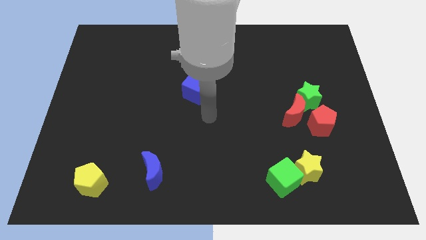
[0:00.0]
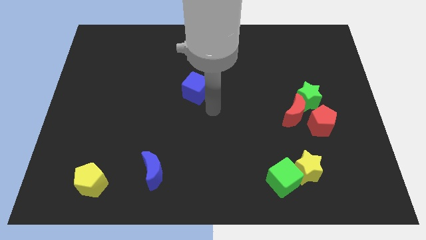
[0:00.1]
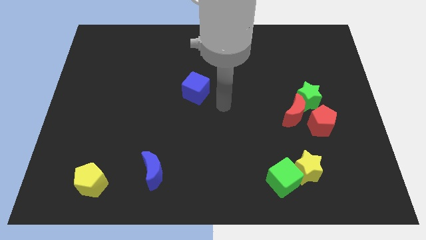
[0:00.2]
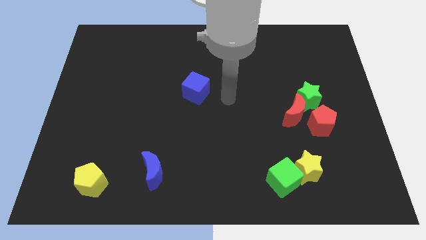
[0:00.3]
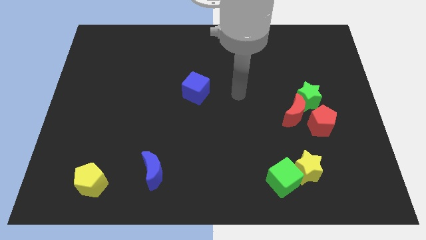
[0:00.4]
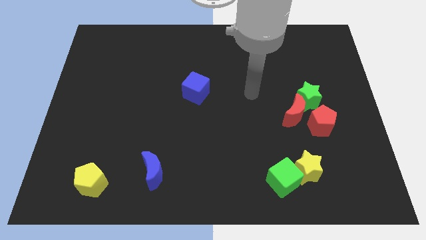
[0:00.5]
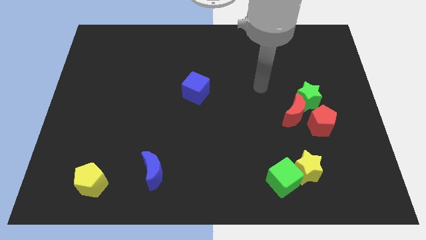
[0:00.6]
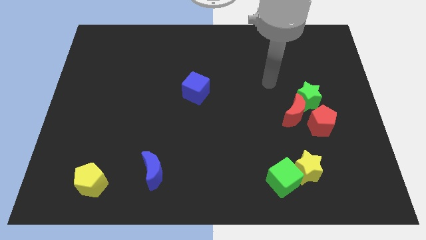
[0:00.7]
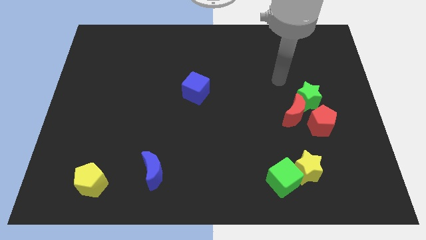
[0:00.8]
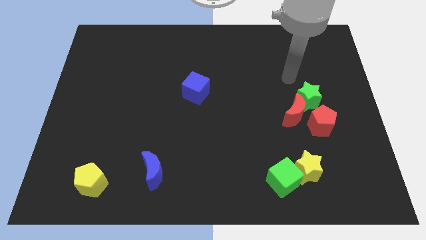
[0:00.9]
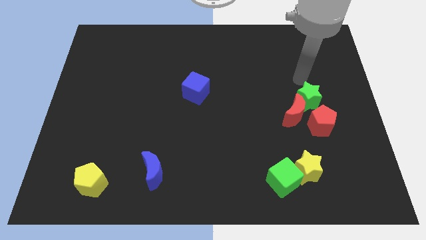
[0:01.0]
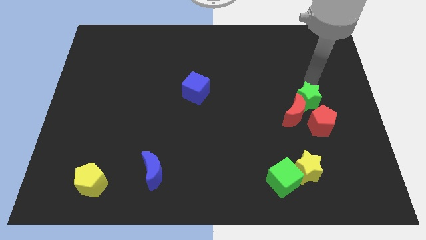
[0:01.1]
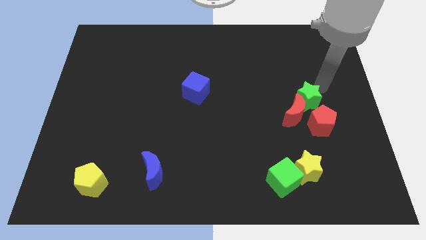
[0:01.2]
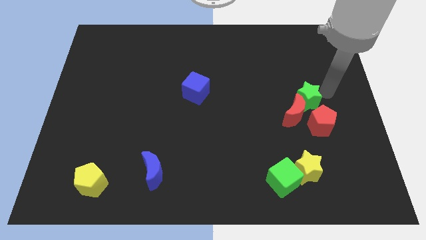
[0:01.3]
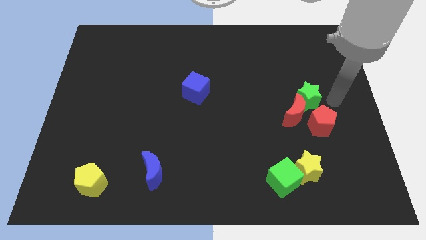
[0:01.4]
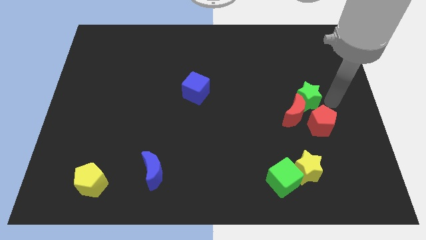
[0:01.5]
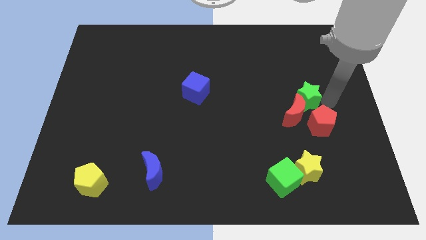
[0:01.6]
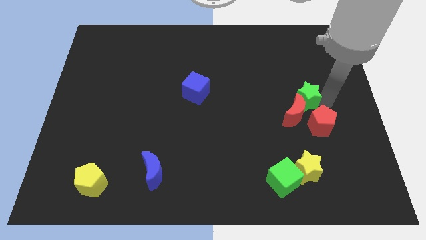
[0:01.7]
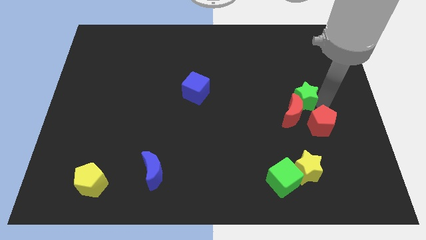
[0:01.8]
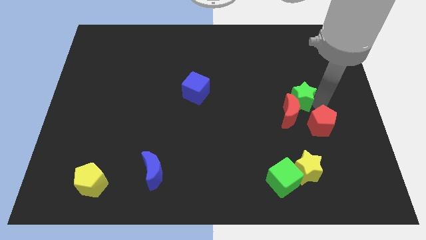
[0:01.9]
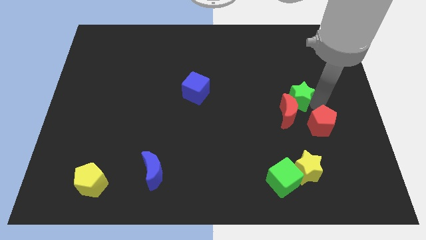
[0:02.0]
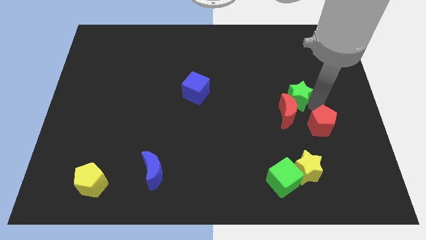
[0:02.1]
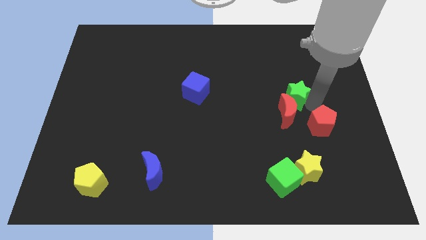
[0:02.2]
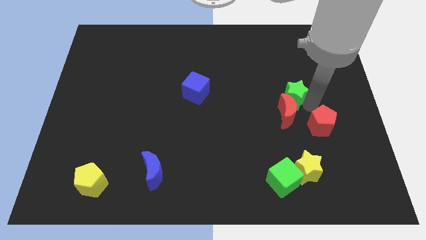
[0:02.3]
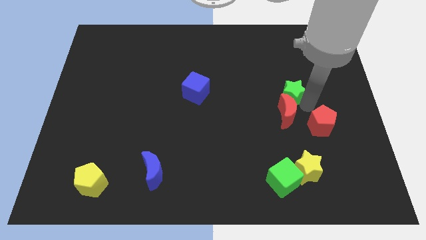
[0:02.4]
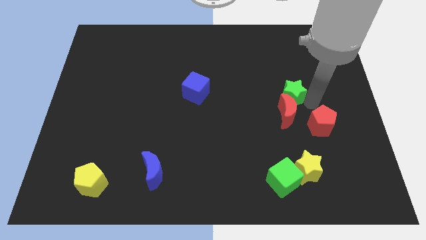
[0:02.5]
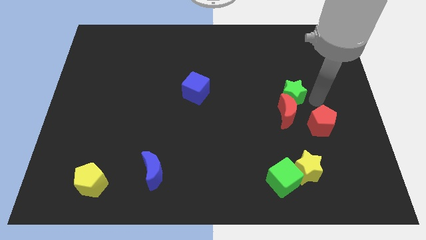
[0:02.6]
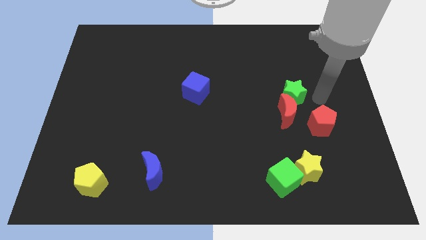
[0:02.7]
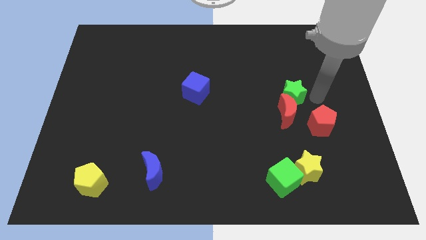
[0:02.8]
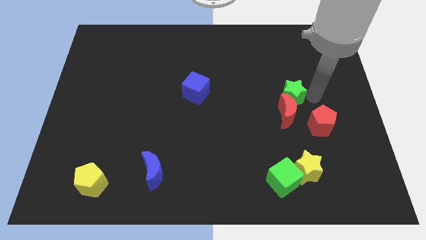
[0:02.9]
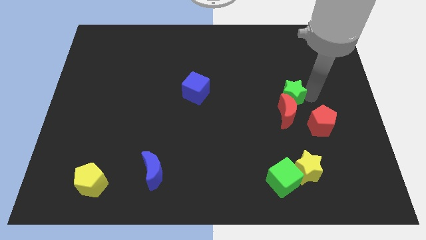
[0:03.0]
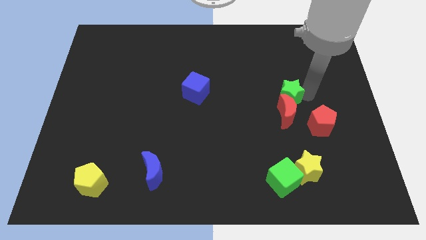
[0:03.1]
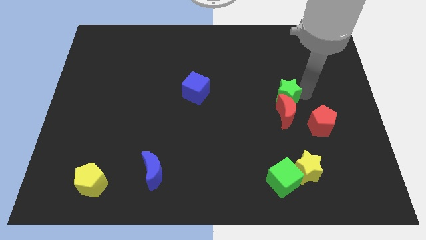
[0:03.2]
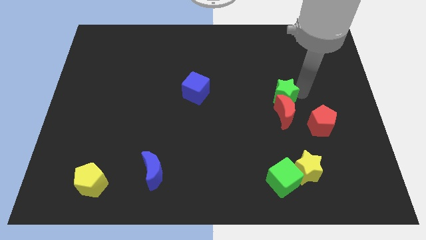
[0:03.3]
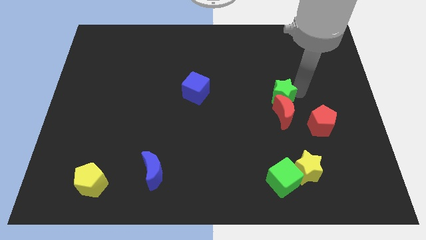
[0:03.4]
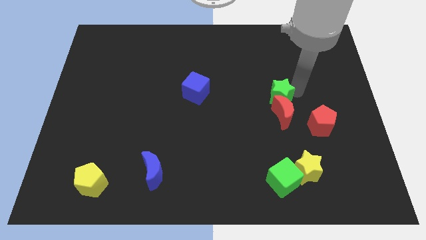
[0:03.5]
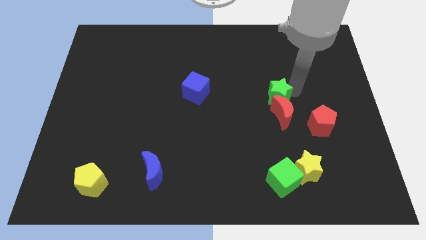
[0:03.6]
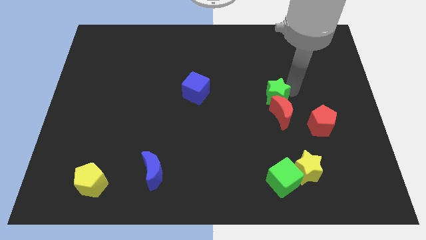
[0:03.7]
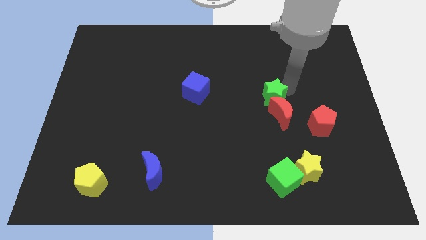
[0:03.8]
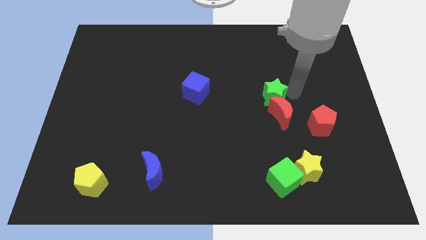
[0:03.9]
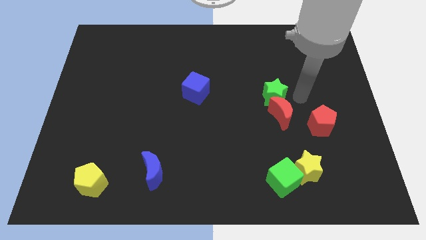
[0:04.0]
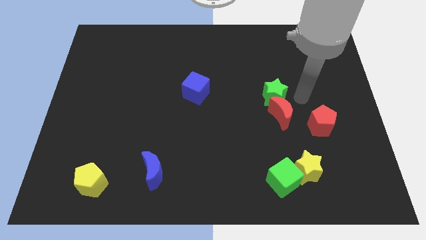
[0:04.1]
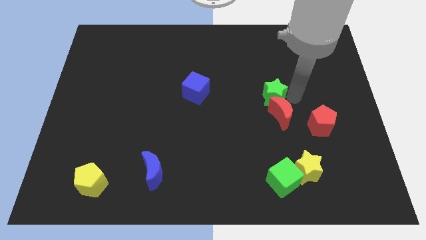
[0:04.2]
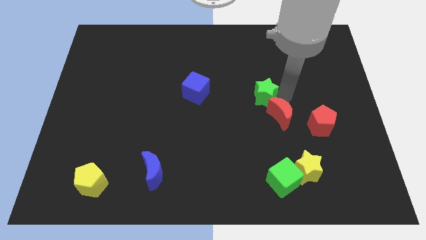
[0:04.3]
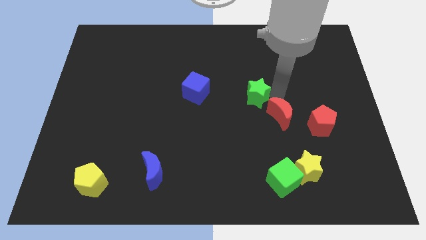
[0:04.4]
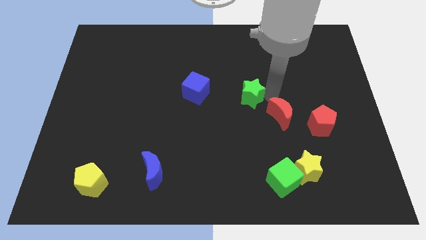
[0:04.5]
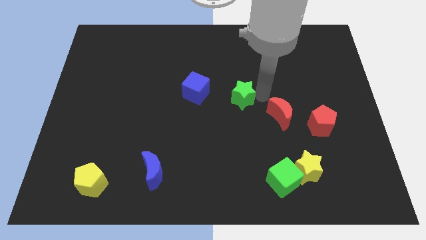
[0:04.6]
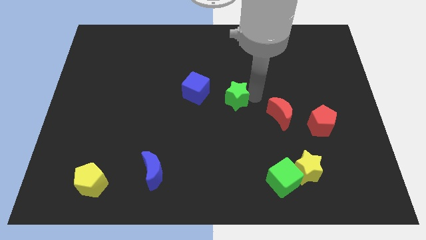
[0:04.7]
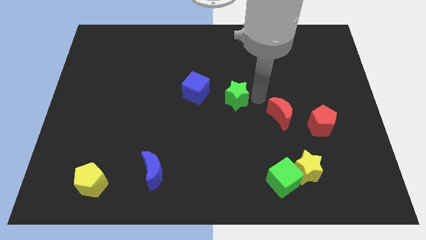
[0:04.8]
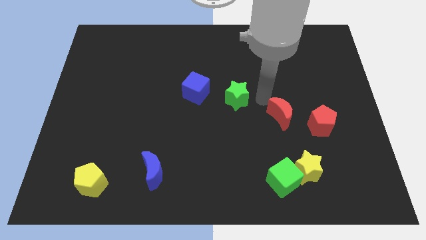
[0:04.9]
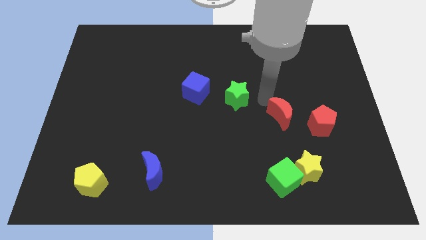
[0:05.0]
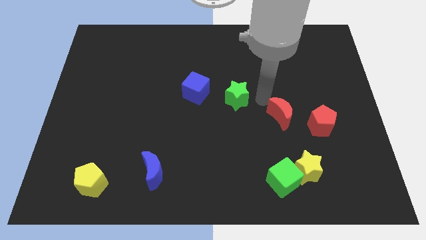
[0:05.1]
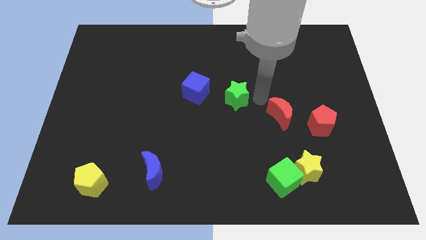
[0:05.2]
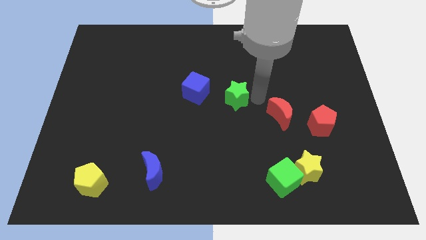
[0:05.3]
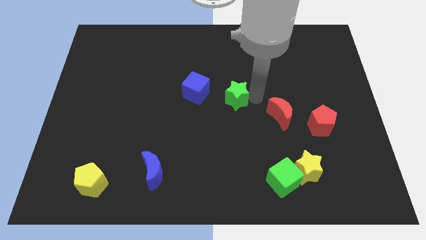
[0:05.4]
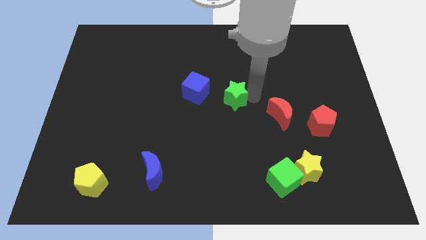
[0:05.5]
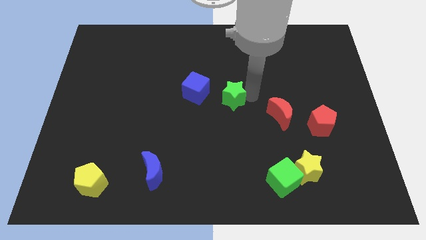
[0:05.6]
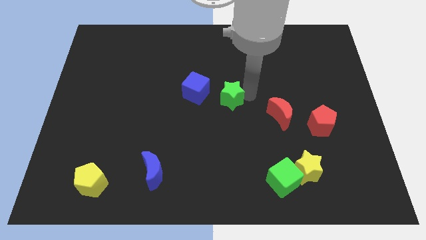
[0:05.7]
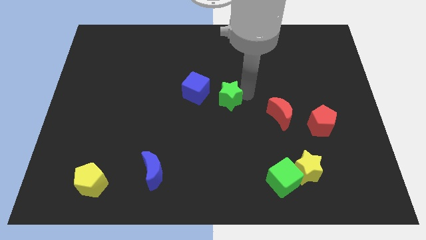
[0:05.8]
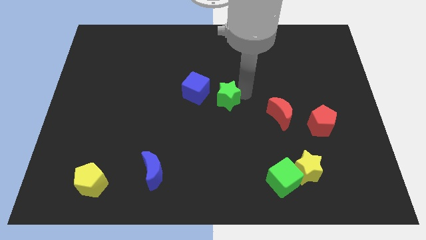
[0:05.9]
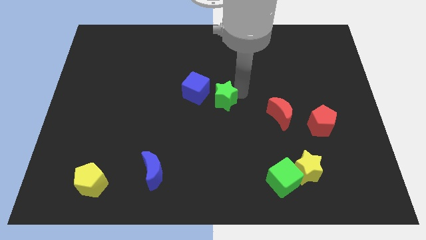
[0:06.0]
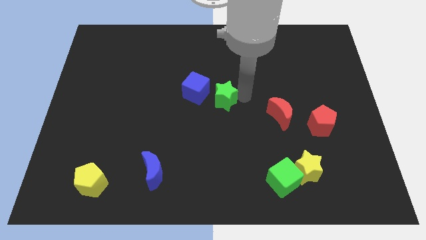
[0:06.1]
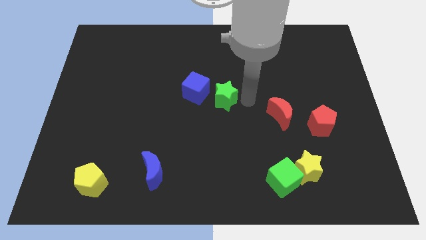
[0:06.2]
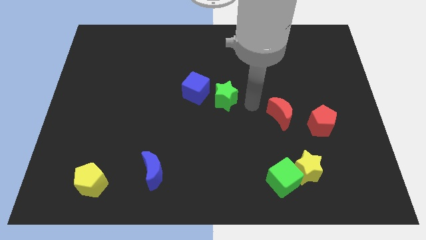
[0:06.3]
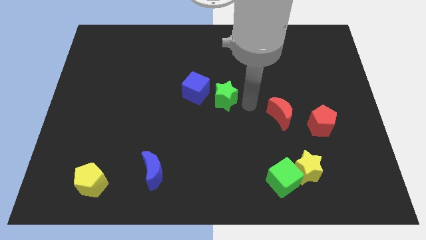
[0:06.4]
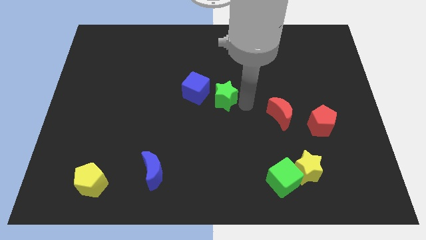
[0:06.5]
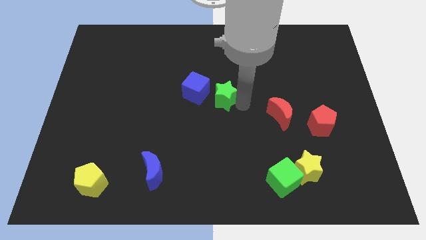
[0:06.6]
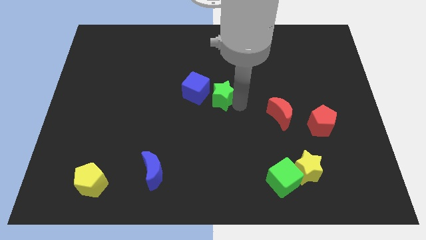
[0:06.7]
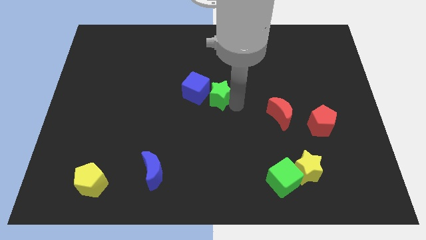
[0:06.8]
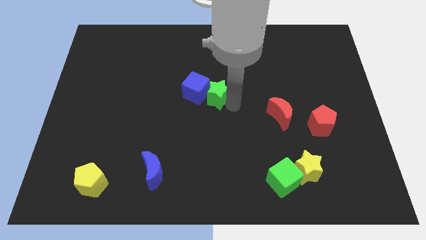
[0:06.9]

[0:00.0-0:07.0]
move the green star towards the blue cube
